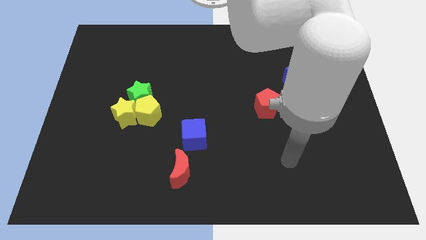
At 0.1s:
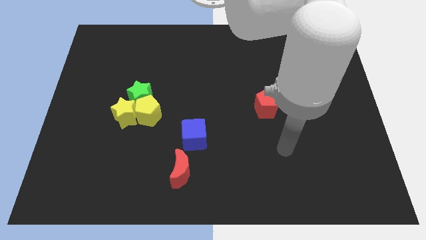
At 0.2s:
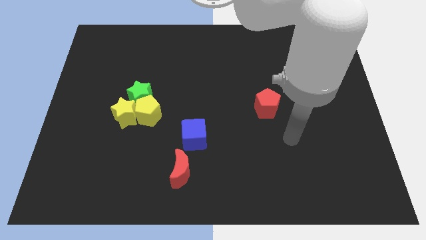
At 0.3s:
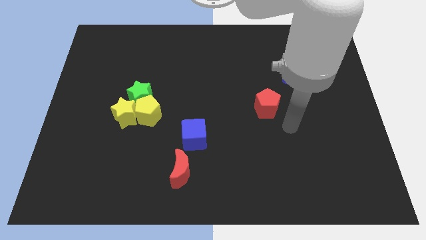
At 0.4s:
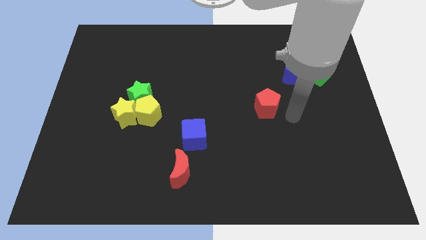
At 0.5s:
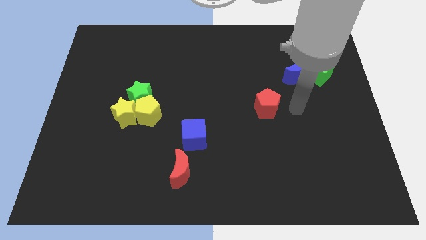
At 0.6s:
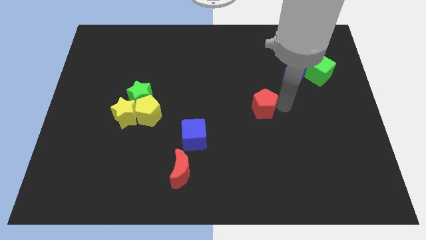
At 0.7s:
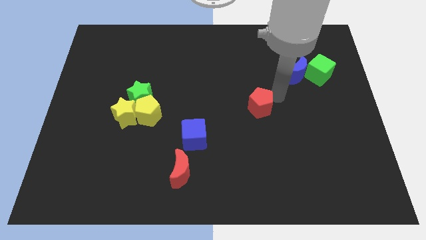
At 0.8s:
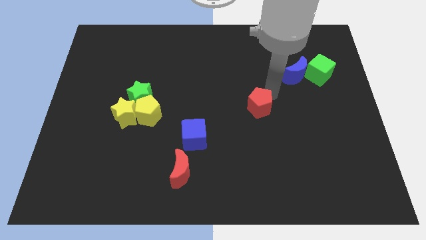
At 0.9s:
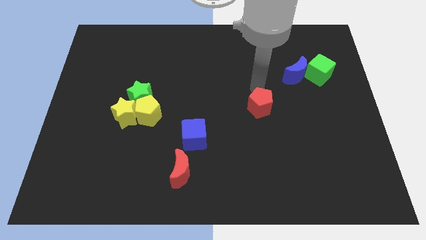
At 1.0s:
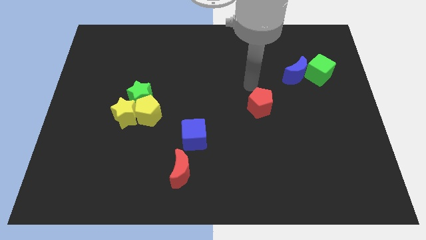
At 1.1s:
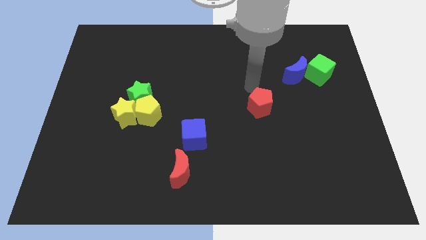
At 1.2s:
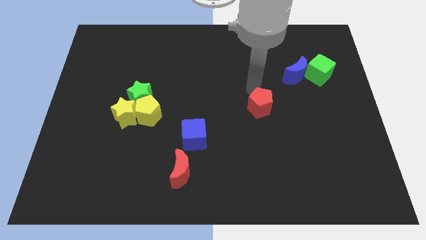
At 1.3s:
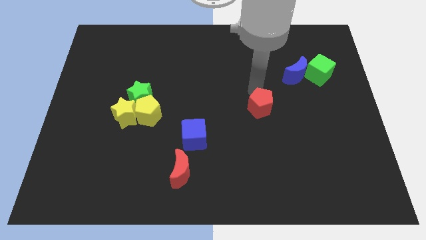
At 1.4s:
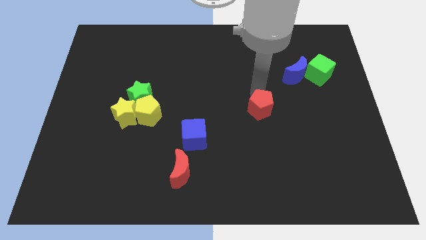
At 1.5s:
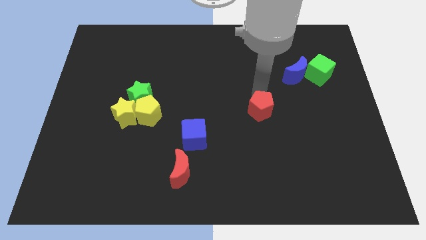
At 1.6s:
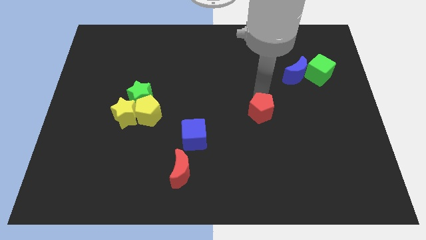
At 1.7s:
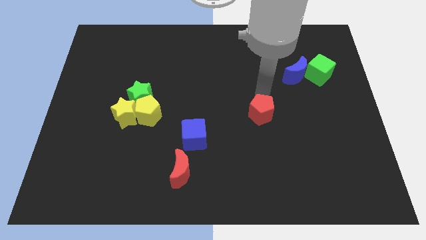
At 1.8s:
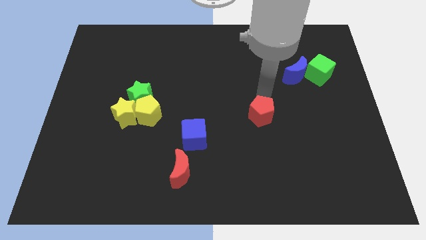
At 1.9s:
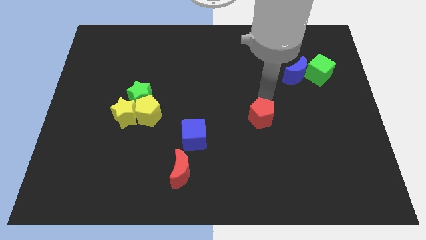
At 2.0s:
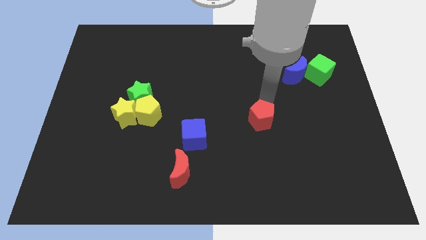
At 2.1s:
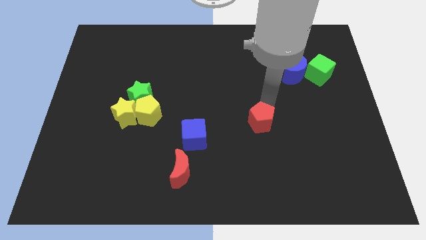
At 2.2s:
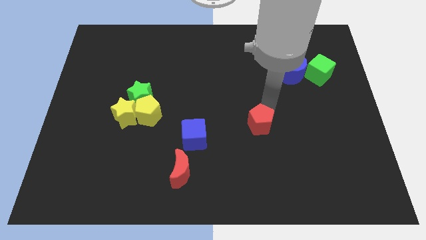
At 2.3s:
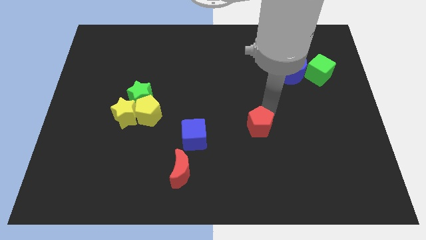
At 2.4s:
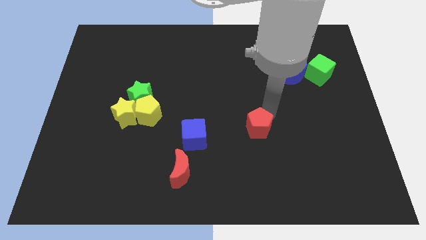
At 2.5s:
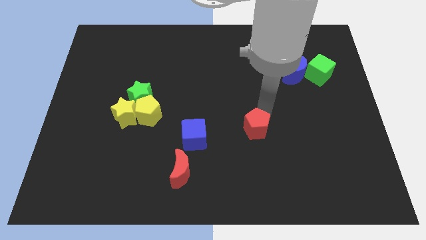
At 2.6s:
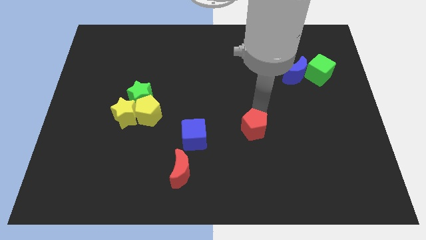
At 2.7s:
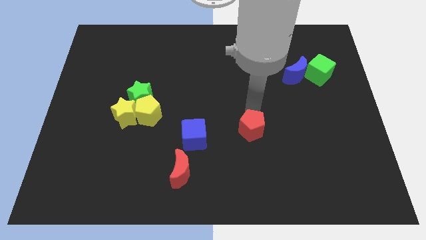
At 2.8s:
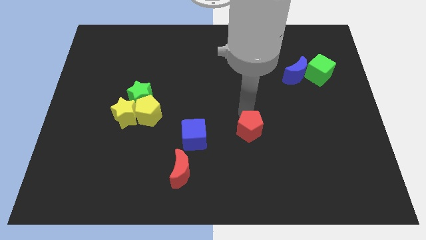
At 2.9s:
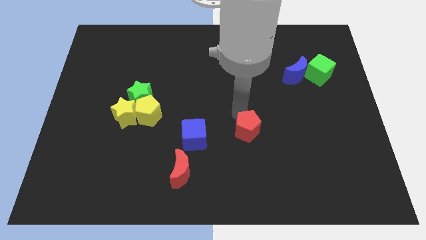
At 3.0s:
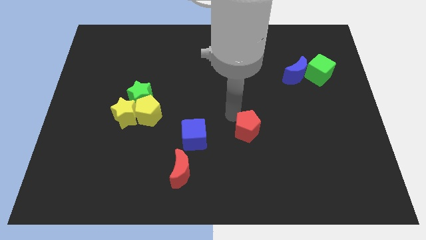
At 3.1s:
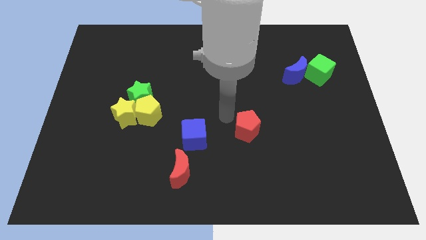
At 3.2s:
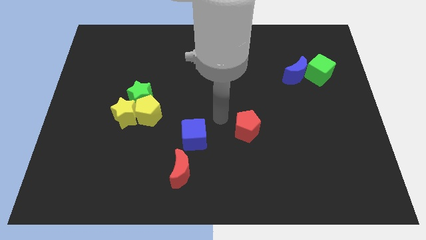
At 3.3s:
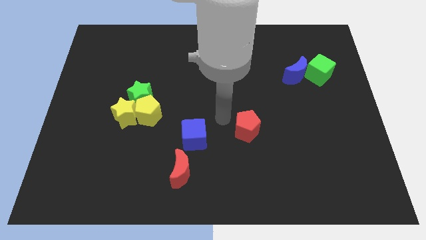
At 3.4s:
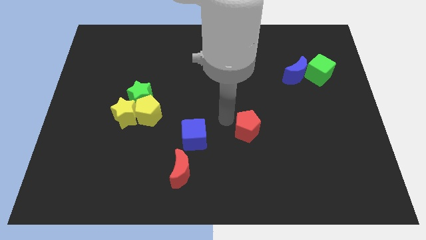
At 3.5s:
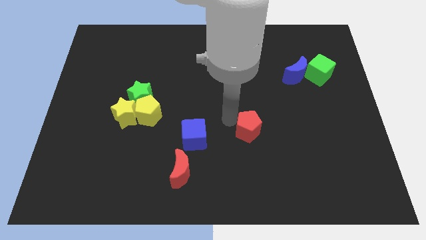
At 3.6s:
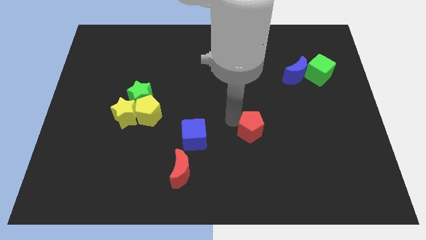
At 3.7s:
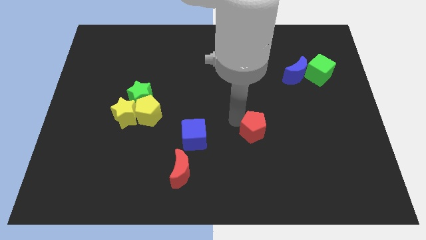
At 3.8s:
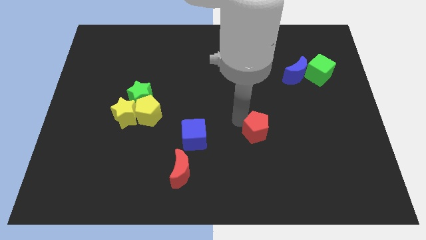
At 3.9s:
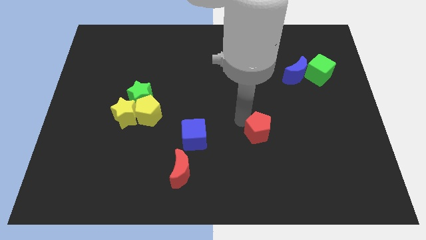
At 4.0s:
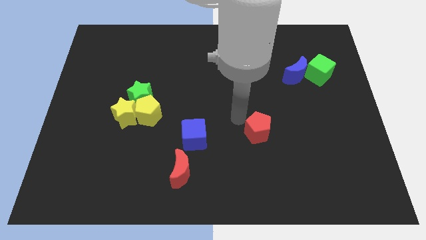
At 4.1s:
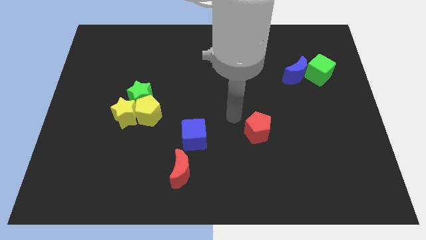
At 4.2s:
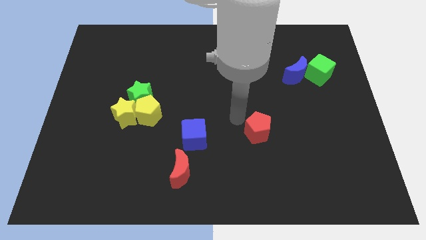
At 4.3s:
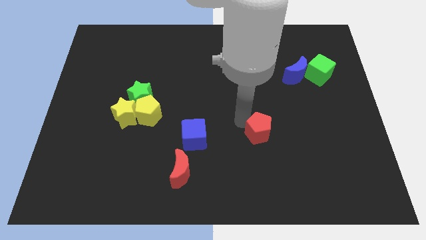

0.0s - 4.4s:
push the red pentagon a little downwards

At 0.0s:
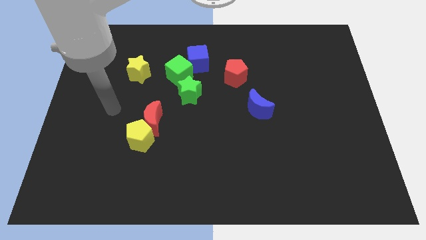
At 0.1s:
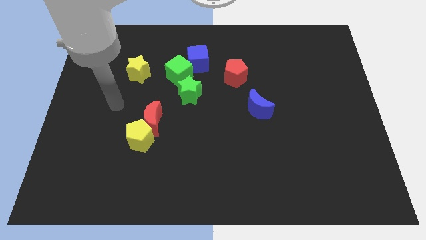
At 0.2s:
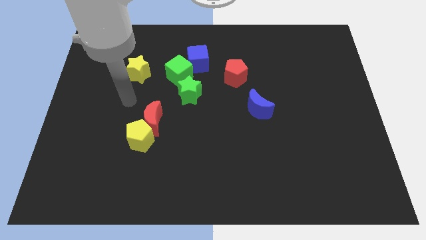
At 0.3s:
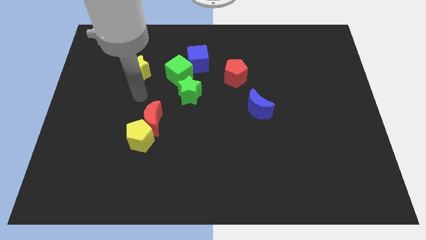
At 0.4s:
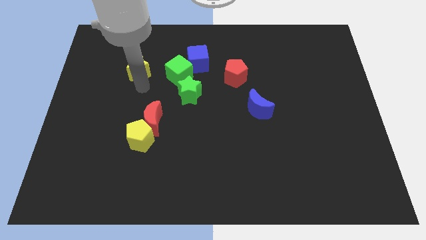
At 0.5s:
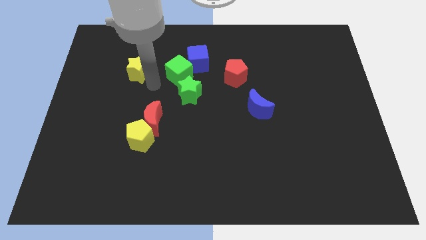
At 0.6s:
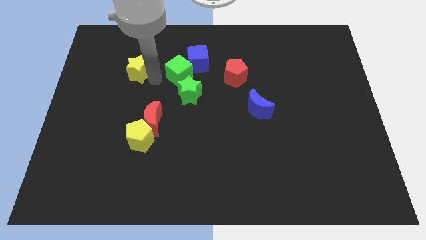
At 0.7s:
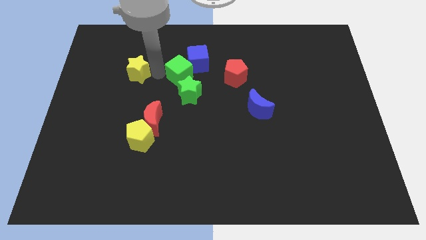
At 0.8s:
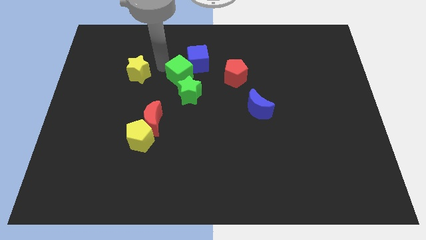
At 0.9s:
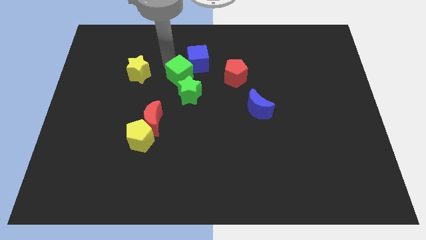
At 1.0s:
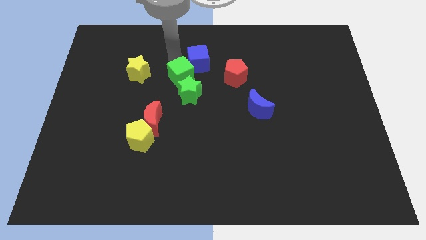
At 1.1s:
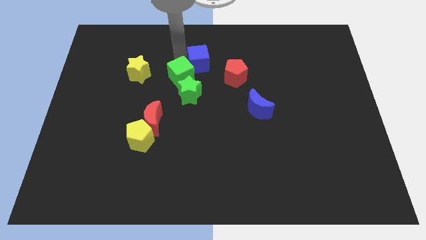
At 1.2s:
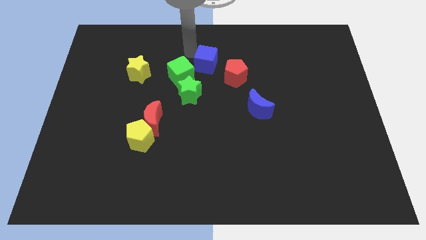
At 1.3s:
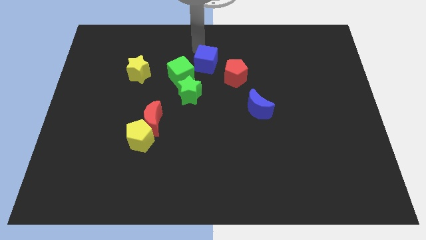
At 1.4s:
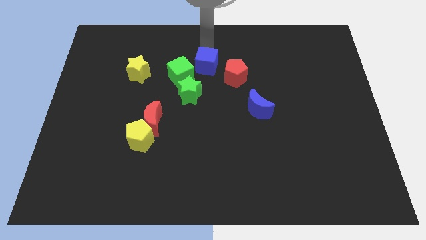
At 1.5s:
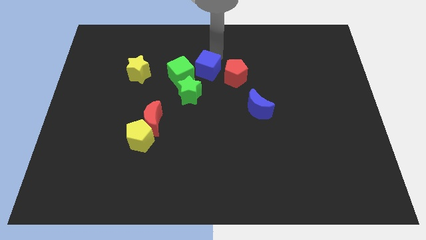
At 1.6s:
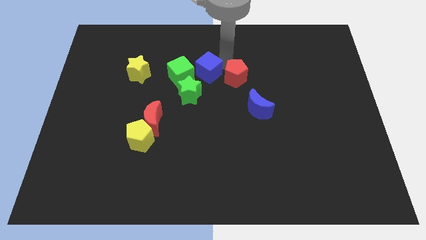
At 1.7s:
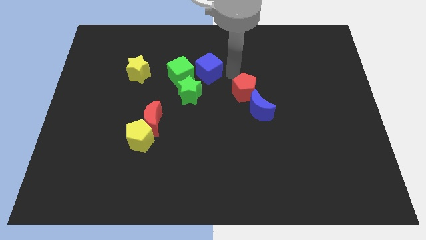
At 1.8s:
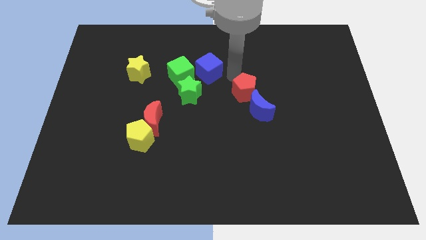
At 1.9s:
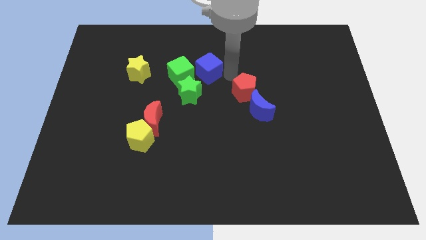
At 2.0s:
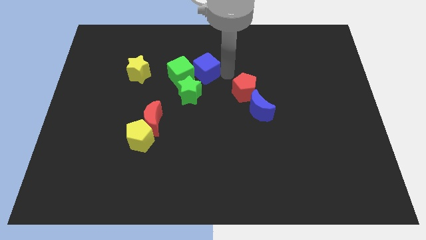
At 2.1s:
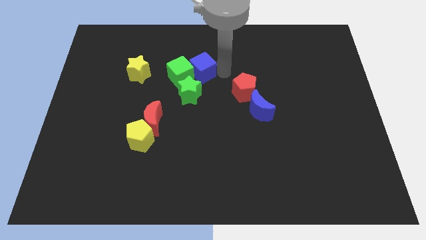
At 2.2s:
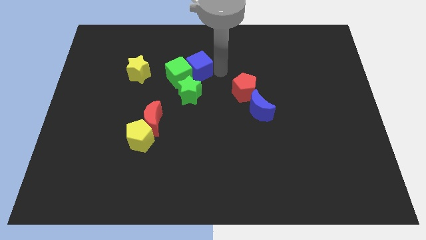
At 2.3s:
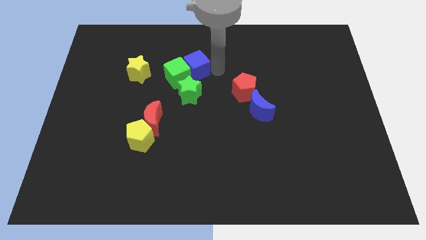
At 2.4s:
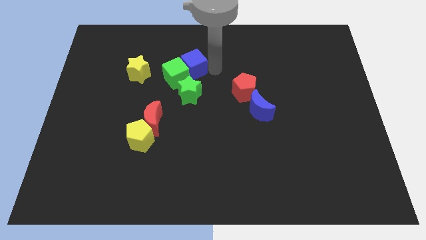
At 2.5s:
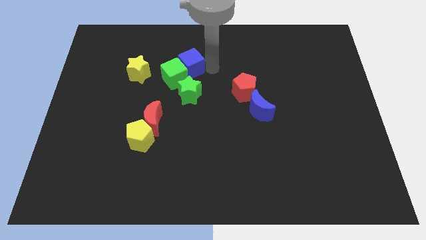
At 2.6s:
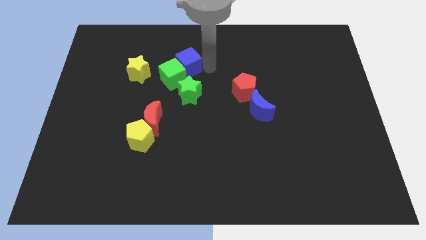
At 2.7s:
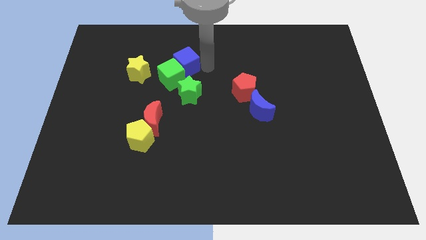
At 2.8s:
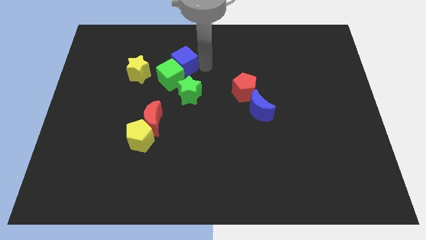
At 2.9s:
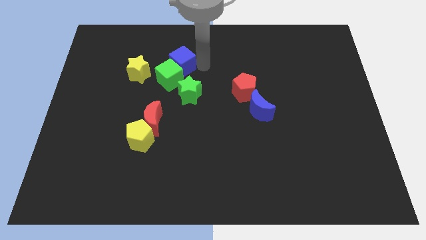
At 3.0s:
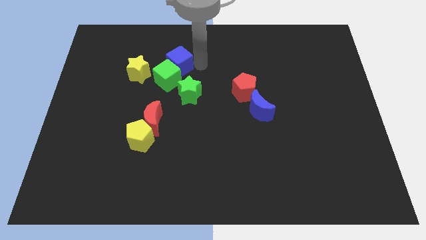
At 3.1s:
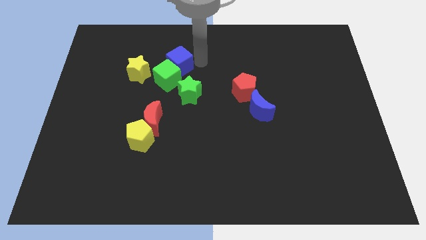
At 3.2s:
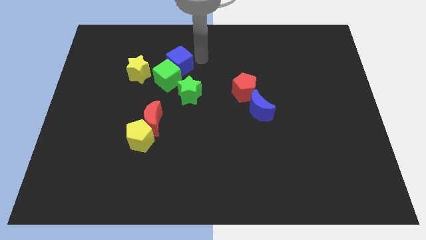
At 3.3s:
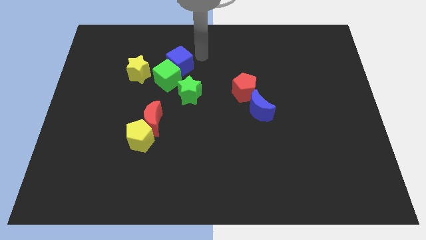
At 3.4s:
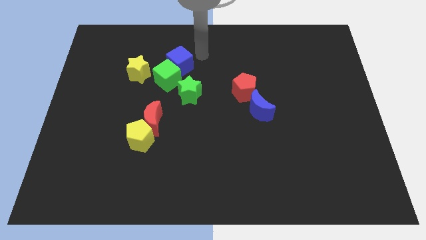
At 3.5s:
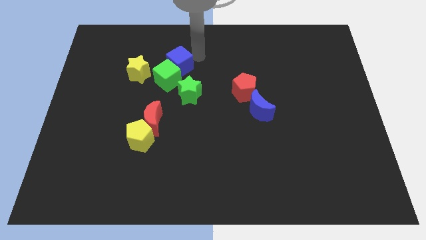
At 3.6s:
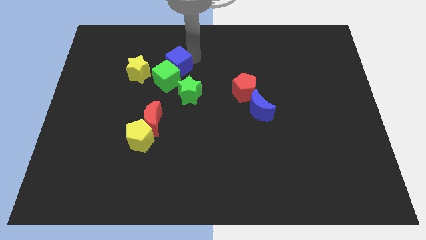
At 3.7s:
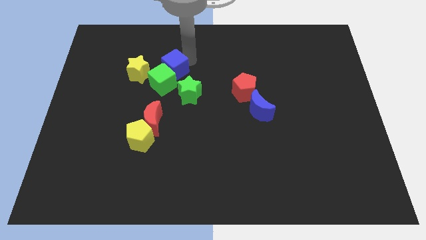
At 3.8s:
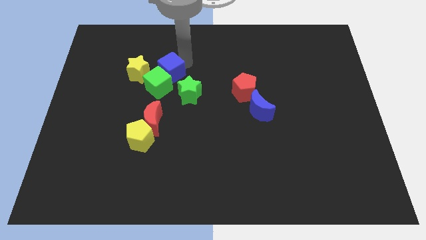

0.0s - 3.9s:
slide the blue cube a little bit diagonally down and left
